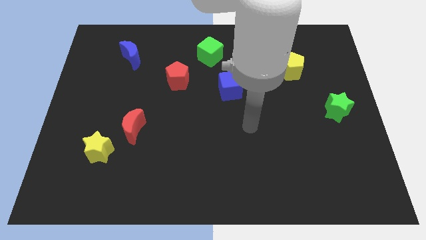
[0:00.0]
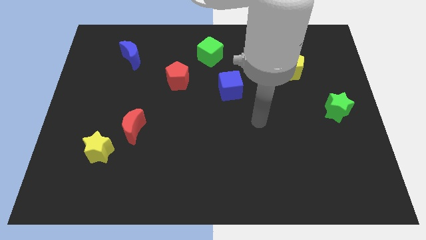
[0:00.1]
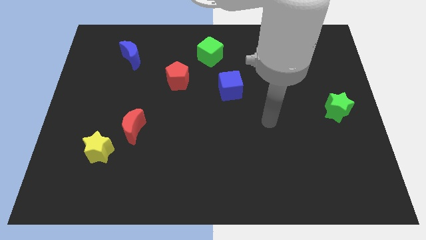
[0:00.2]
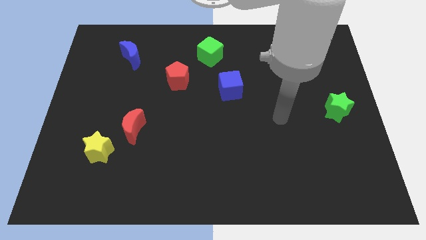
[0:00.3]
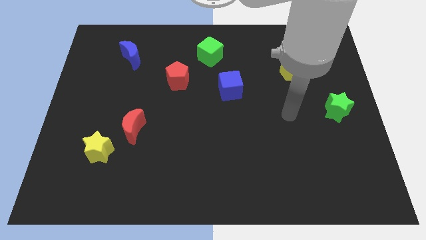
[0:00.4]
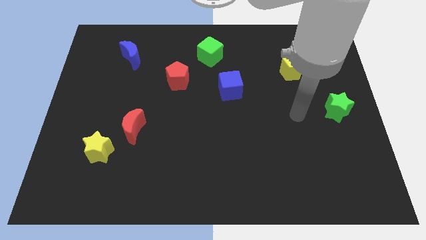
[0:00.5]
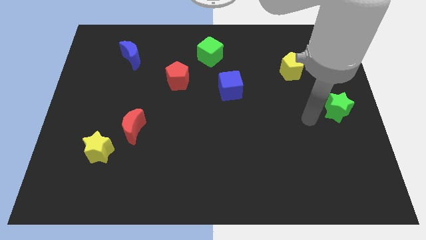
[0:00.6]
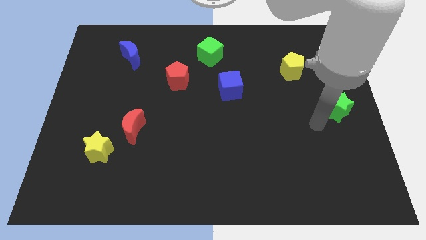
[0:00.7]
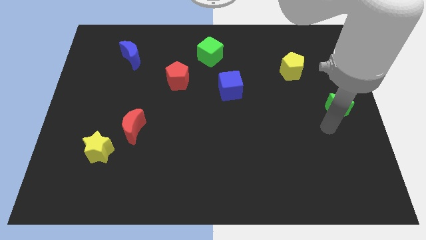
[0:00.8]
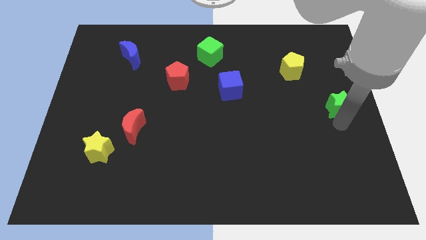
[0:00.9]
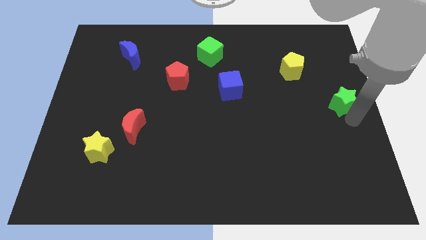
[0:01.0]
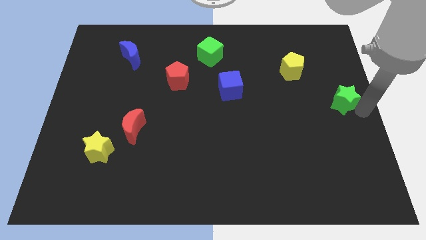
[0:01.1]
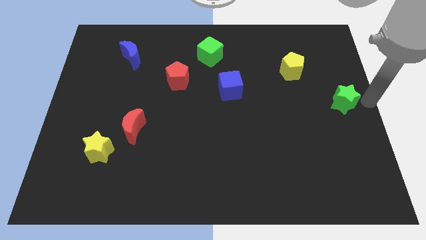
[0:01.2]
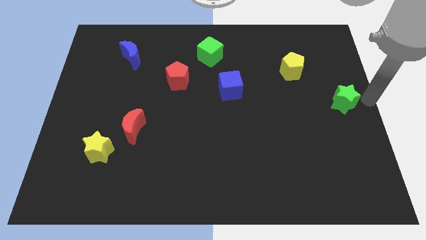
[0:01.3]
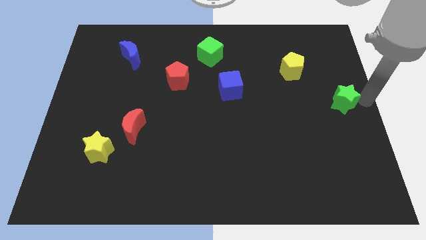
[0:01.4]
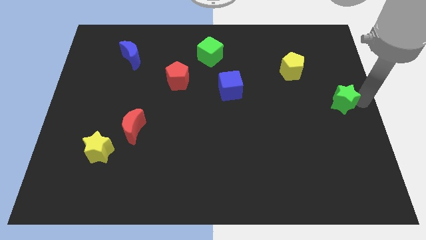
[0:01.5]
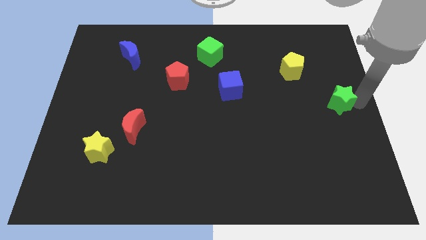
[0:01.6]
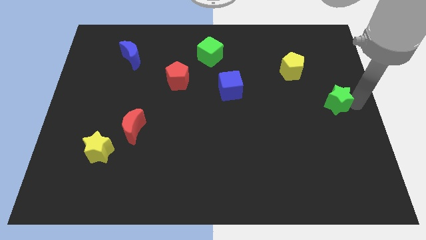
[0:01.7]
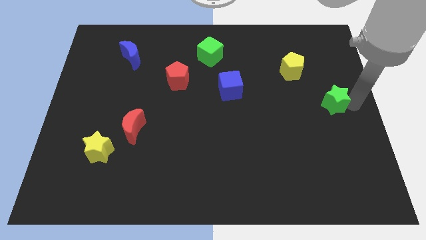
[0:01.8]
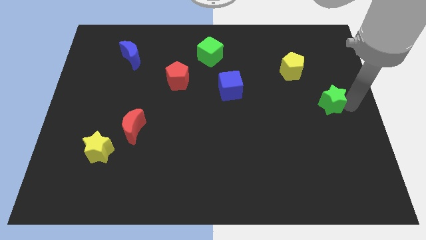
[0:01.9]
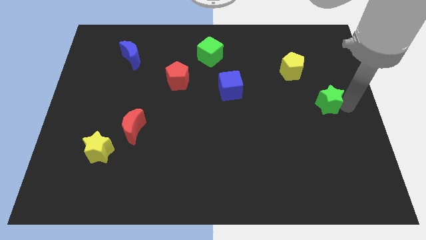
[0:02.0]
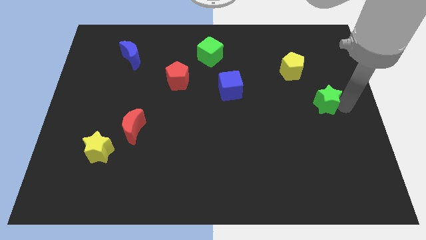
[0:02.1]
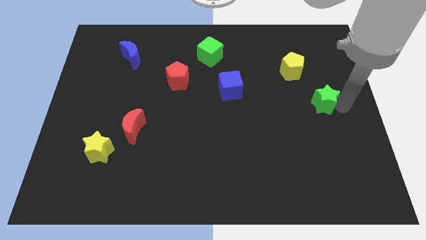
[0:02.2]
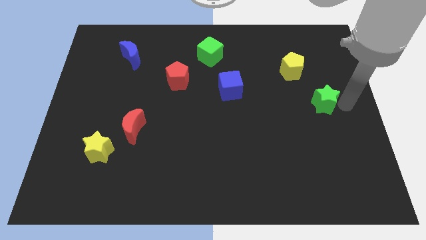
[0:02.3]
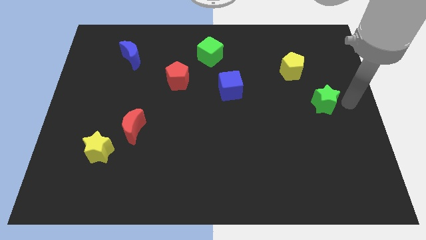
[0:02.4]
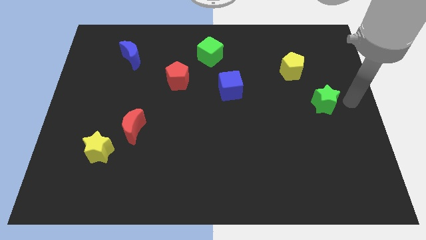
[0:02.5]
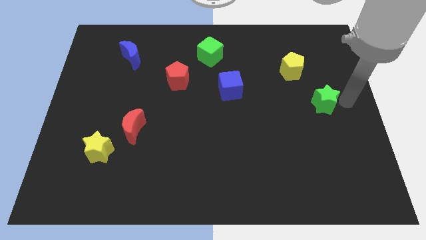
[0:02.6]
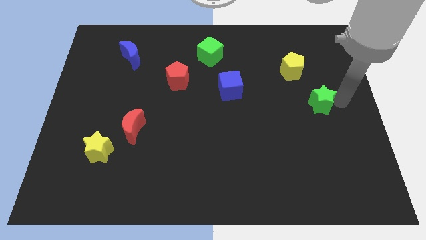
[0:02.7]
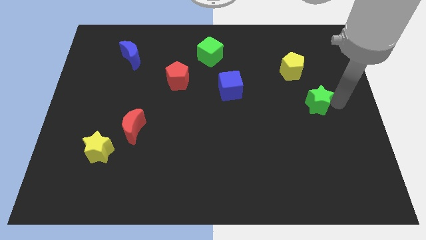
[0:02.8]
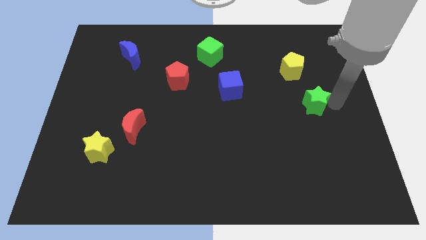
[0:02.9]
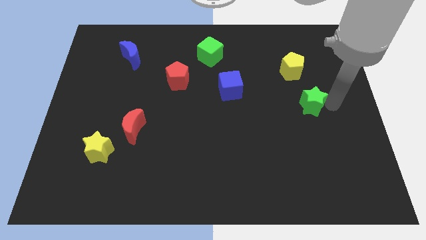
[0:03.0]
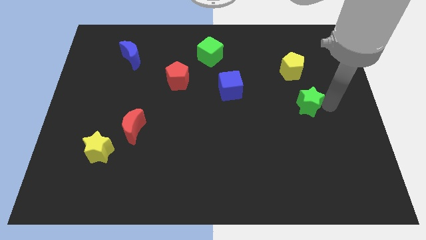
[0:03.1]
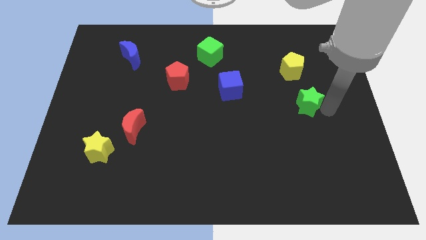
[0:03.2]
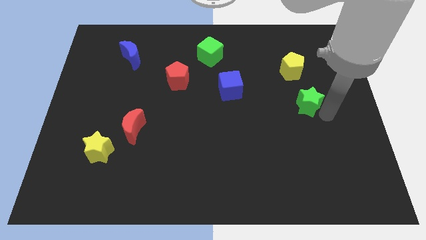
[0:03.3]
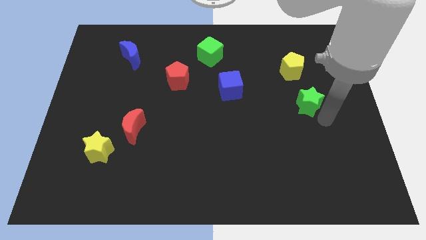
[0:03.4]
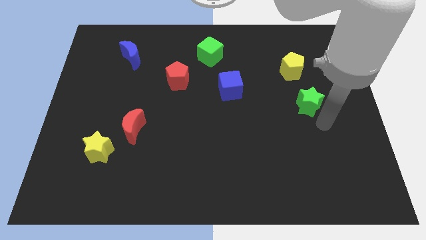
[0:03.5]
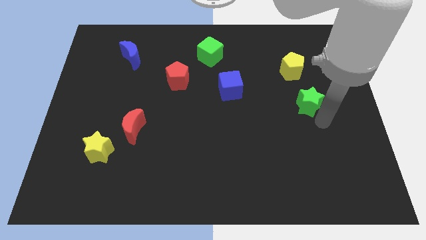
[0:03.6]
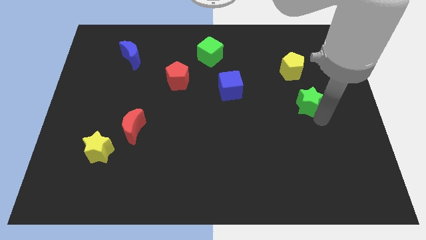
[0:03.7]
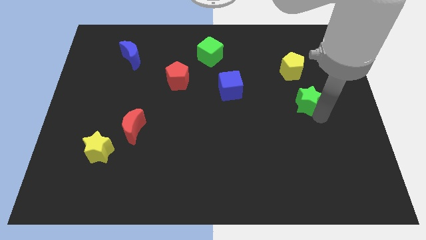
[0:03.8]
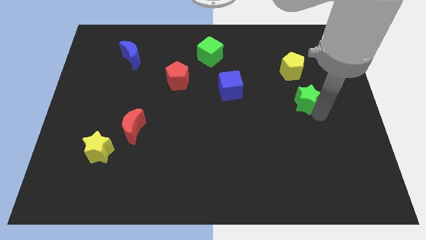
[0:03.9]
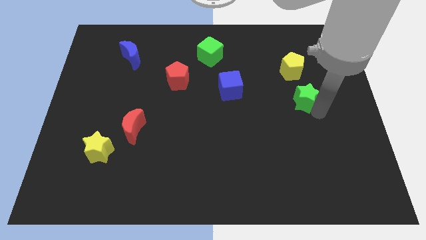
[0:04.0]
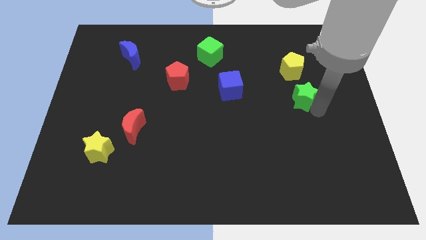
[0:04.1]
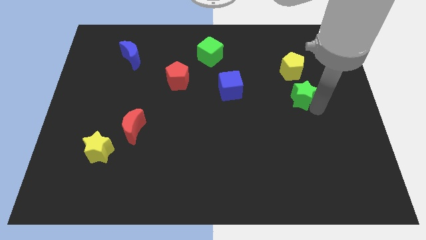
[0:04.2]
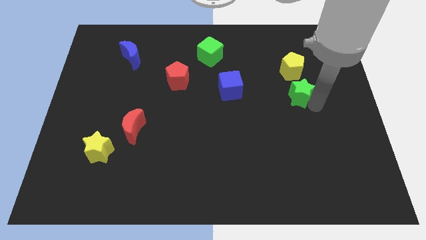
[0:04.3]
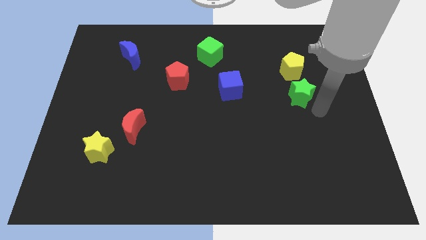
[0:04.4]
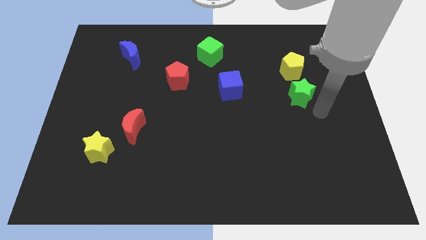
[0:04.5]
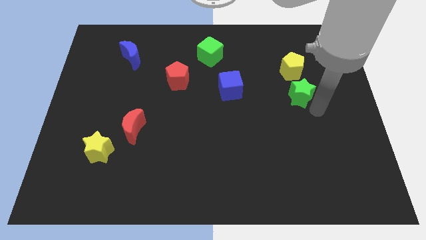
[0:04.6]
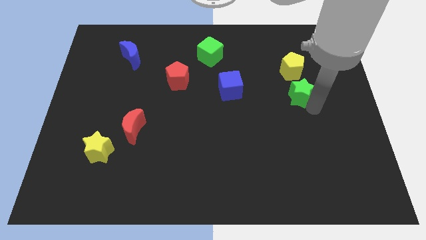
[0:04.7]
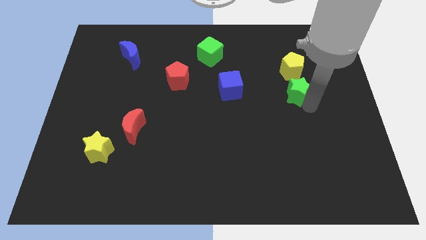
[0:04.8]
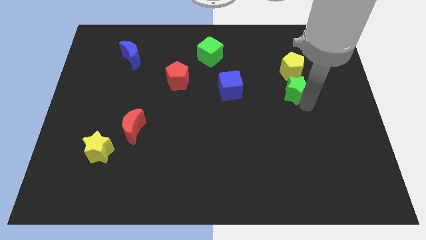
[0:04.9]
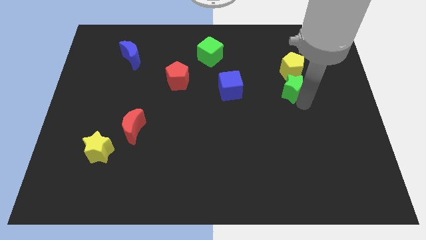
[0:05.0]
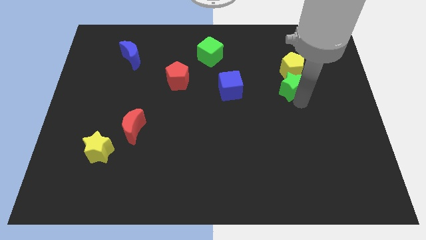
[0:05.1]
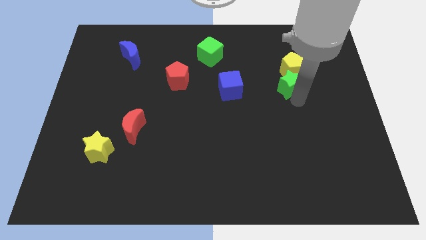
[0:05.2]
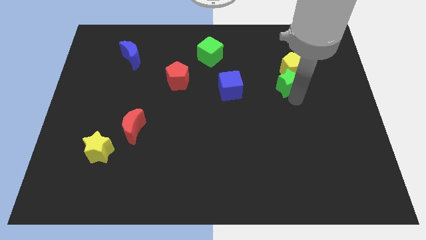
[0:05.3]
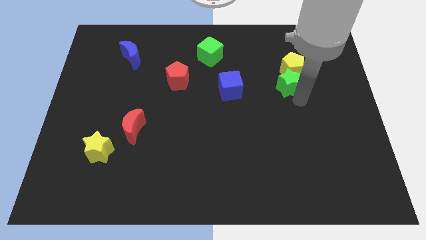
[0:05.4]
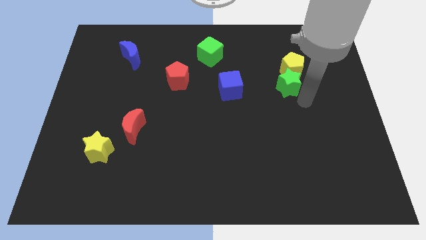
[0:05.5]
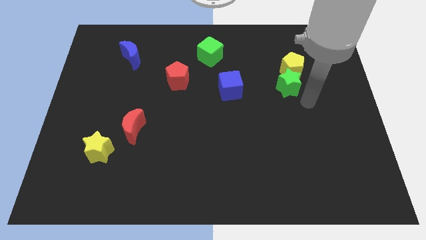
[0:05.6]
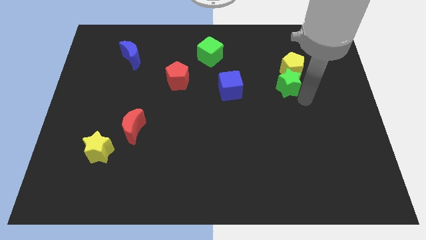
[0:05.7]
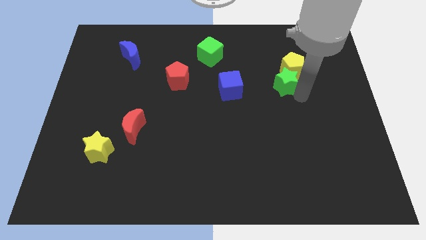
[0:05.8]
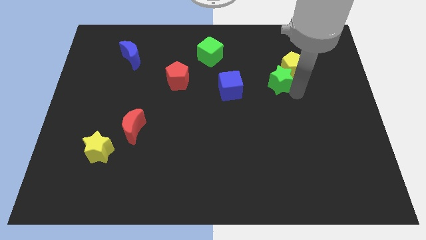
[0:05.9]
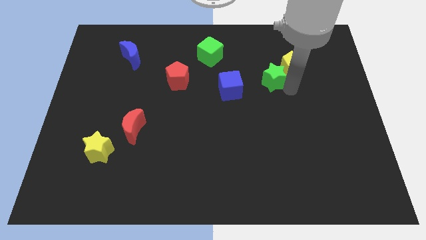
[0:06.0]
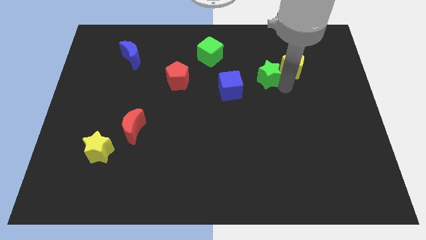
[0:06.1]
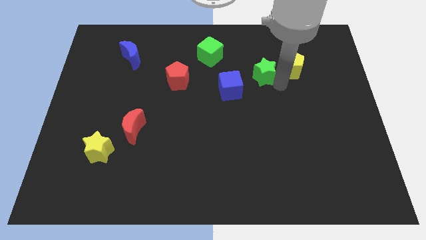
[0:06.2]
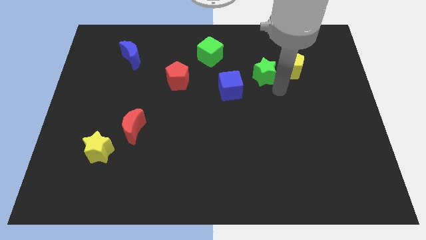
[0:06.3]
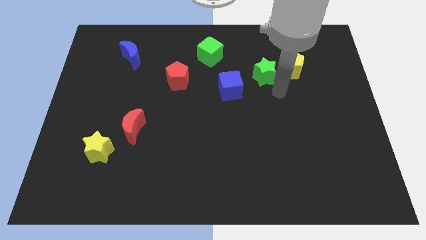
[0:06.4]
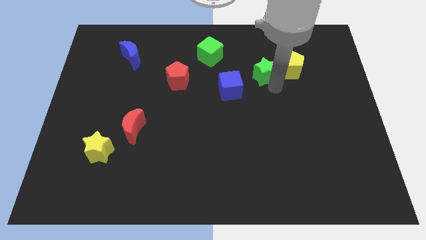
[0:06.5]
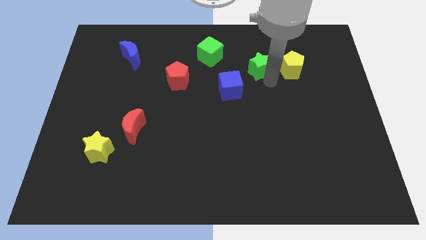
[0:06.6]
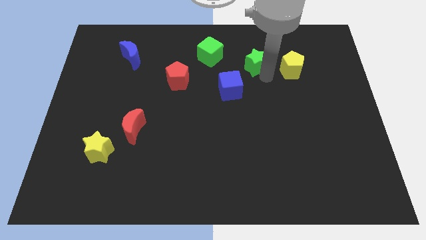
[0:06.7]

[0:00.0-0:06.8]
push the green star to the right of the green cube
